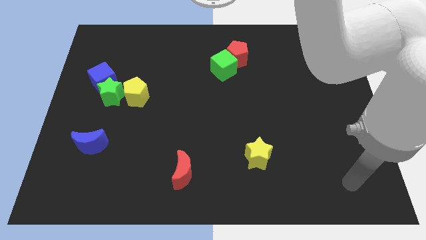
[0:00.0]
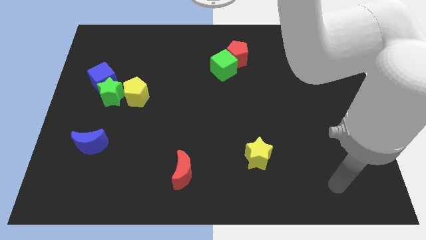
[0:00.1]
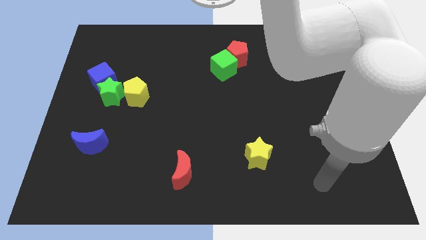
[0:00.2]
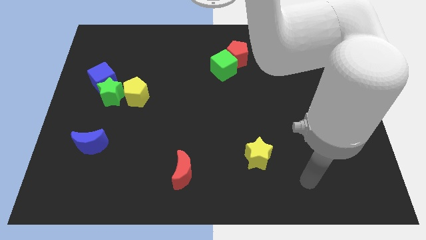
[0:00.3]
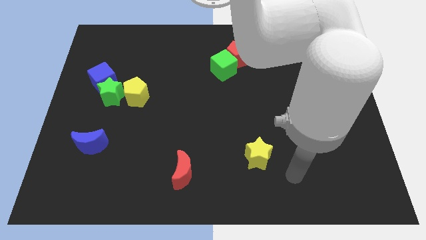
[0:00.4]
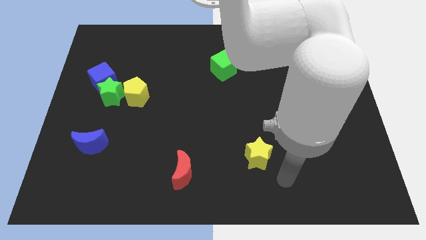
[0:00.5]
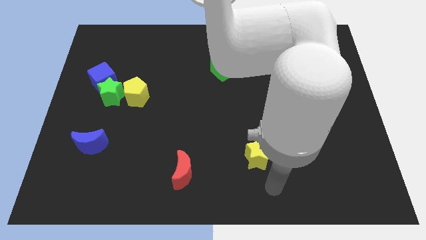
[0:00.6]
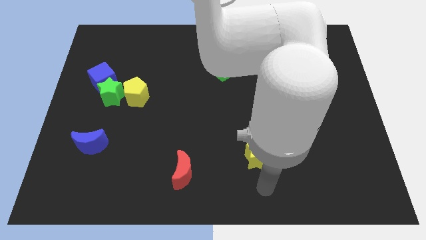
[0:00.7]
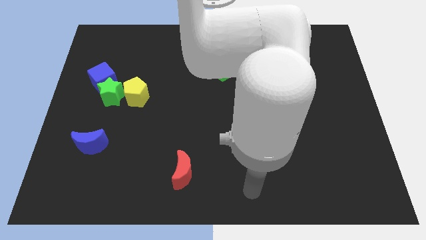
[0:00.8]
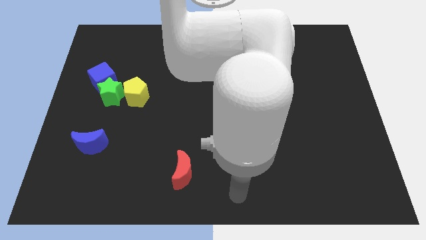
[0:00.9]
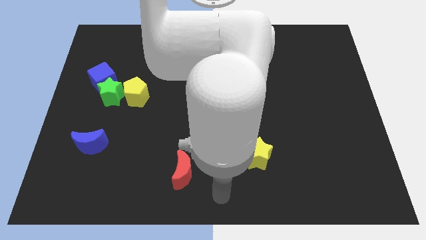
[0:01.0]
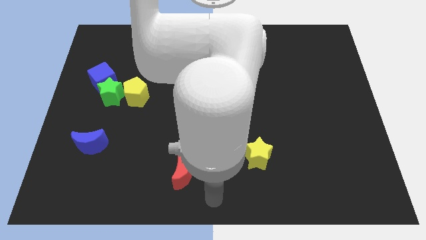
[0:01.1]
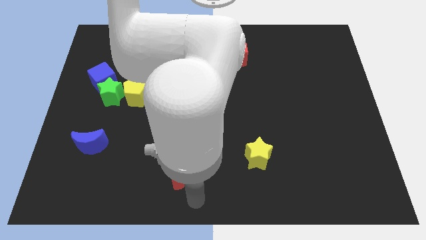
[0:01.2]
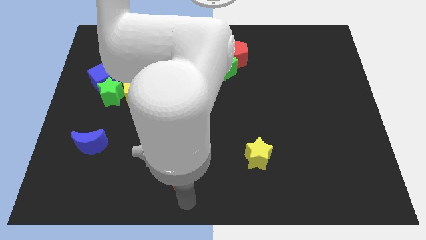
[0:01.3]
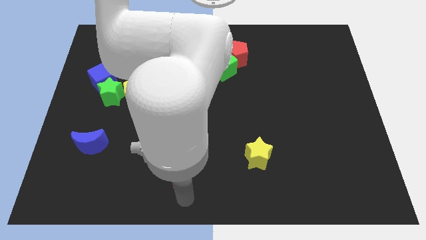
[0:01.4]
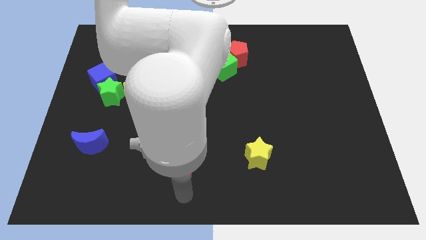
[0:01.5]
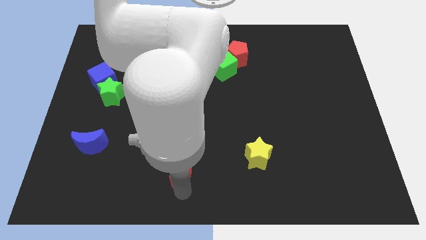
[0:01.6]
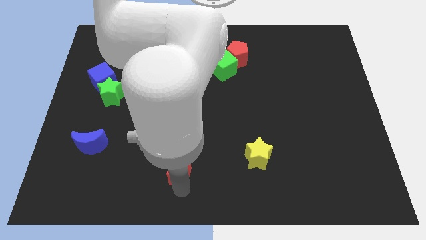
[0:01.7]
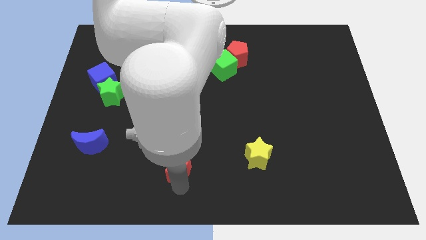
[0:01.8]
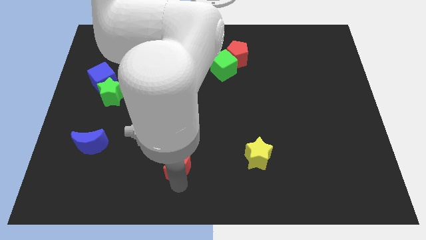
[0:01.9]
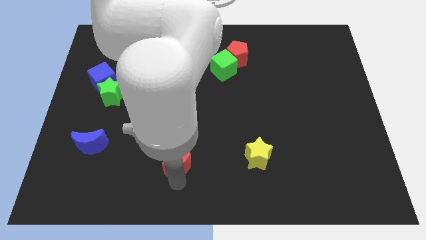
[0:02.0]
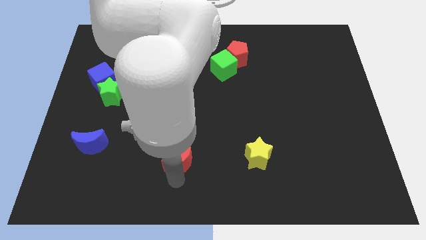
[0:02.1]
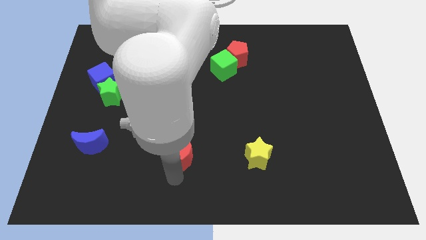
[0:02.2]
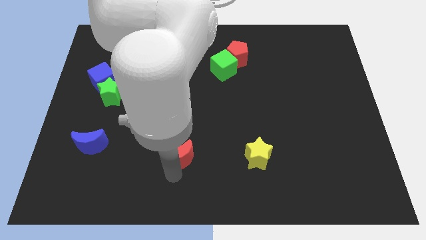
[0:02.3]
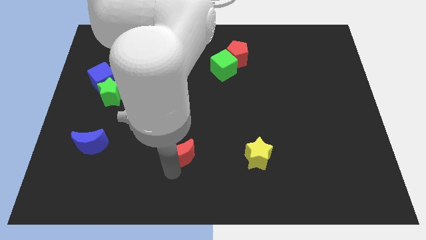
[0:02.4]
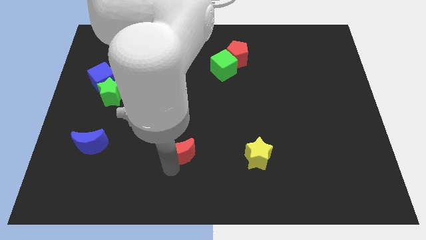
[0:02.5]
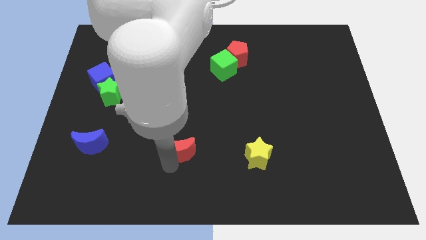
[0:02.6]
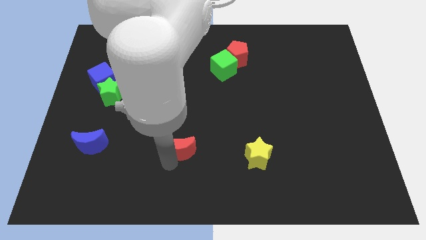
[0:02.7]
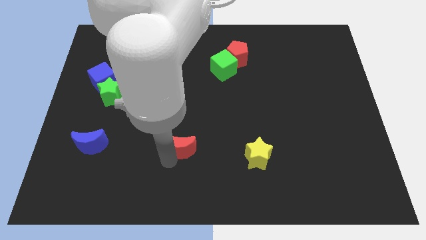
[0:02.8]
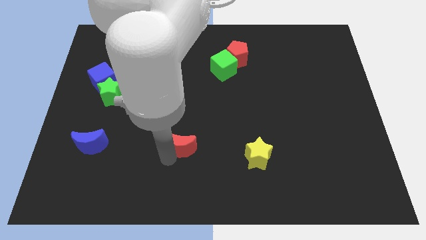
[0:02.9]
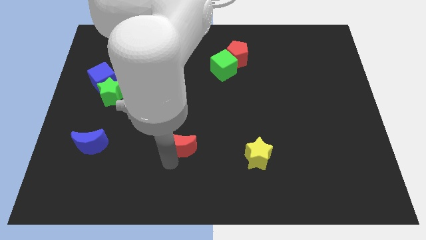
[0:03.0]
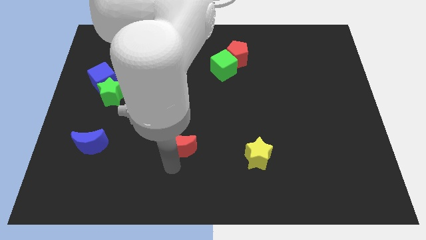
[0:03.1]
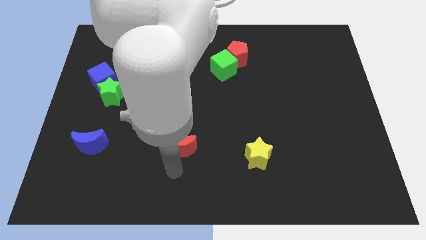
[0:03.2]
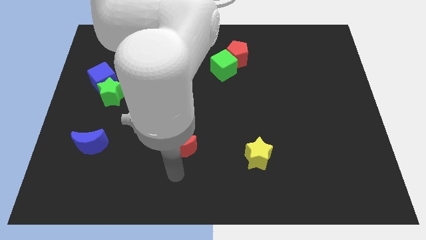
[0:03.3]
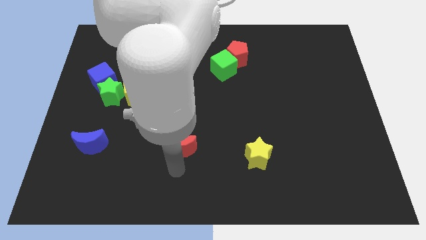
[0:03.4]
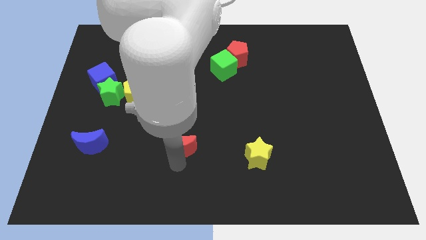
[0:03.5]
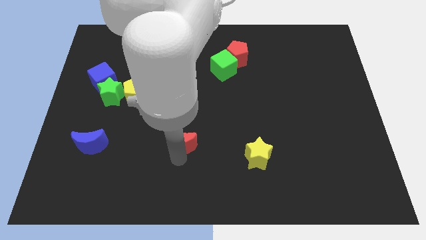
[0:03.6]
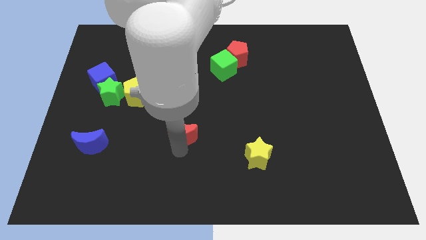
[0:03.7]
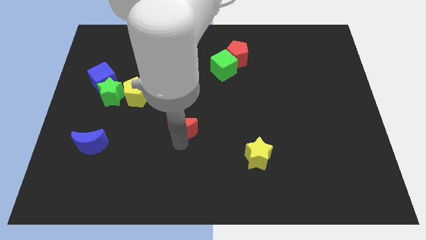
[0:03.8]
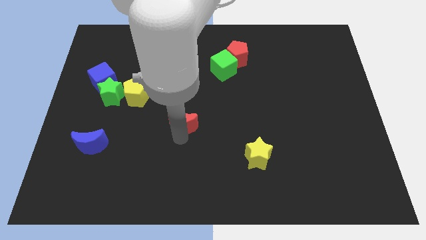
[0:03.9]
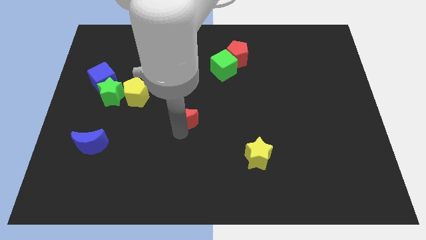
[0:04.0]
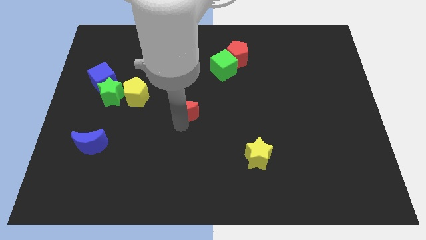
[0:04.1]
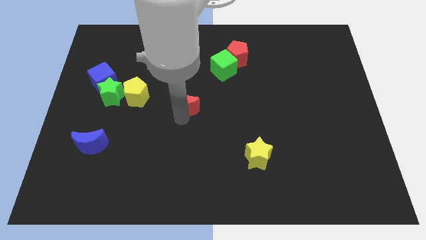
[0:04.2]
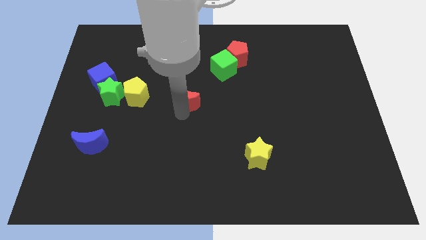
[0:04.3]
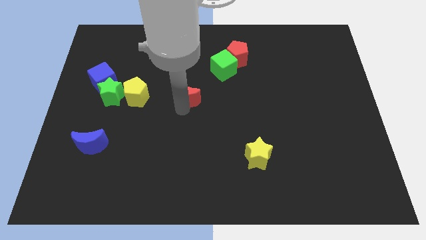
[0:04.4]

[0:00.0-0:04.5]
move the red moon up

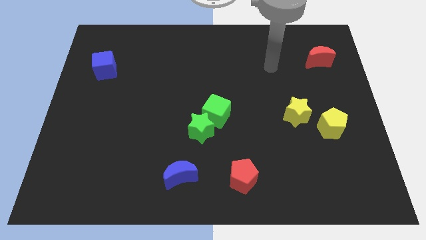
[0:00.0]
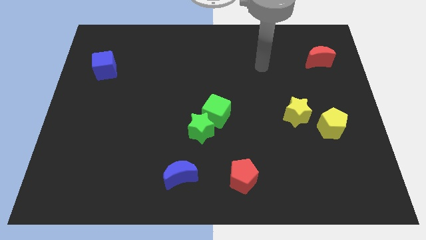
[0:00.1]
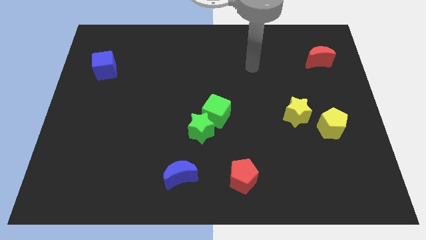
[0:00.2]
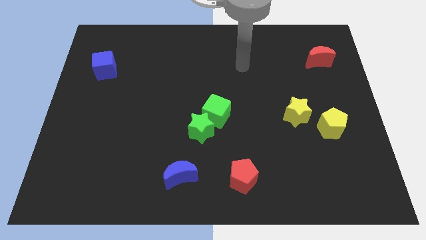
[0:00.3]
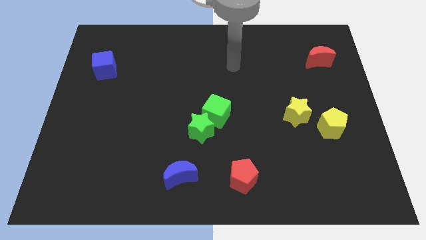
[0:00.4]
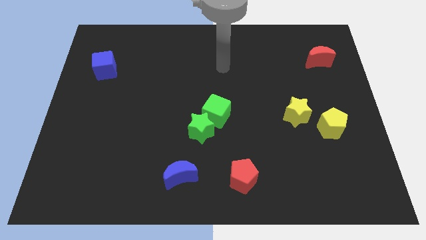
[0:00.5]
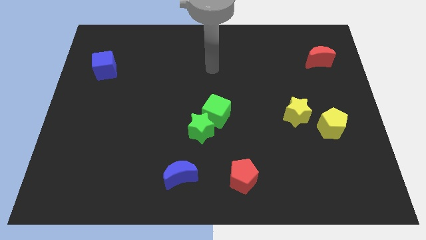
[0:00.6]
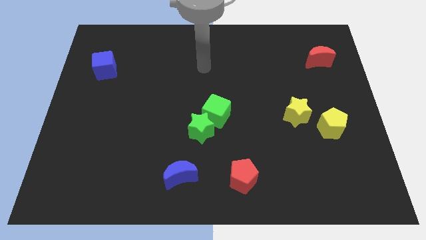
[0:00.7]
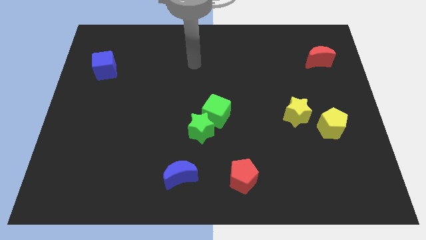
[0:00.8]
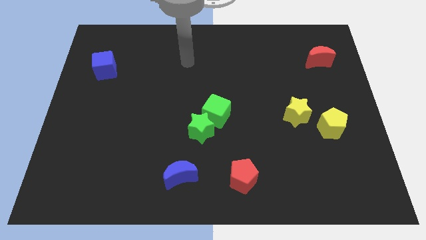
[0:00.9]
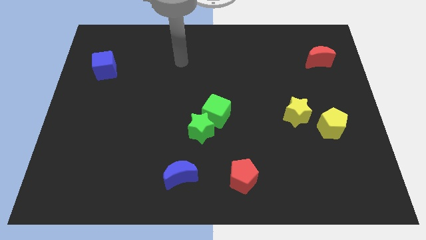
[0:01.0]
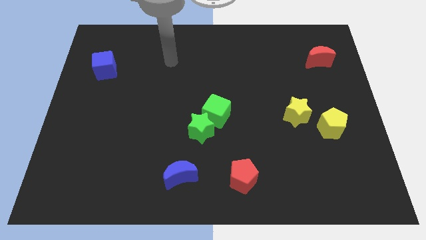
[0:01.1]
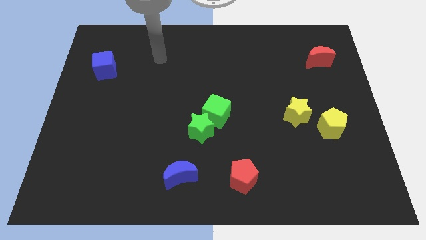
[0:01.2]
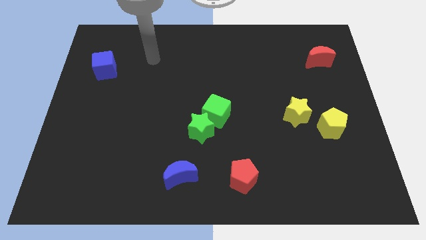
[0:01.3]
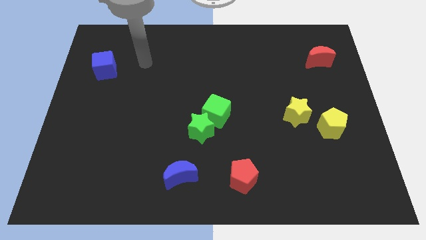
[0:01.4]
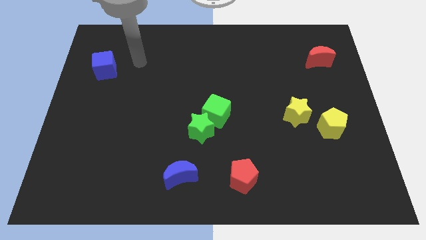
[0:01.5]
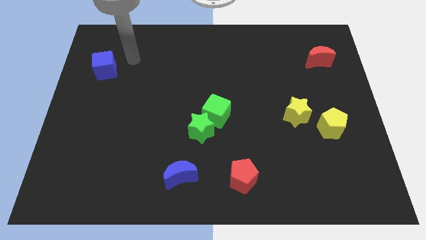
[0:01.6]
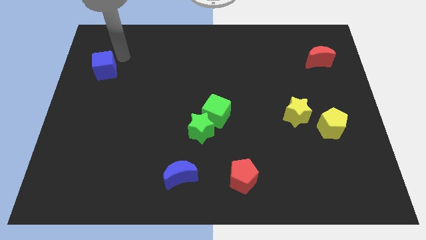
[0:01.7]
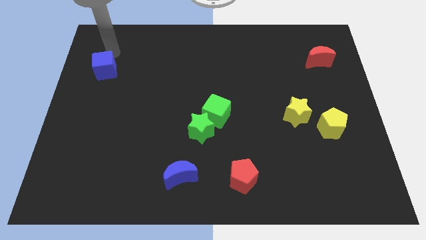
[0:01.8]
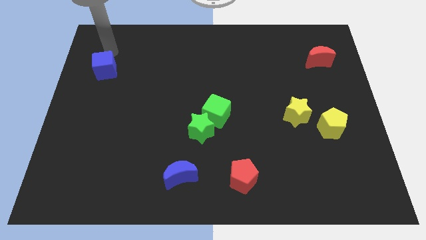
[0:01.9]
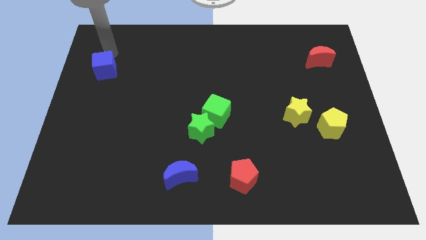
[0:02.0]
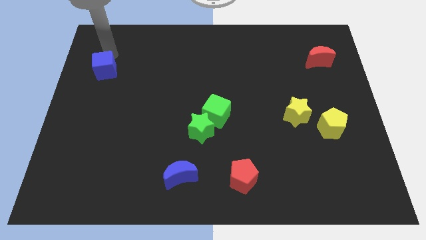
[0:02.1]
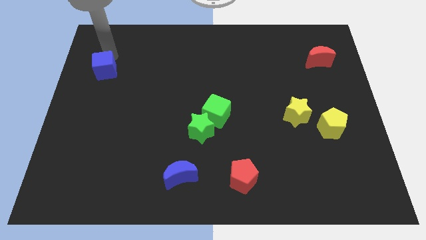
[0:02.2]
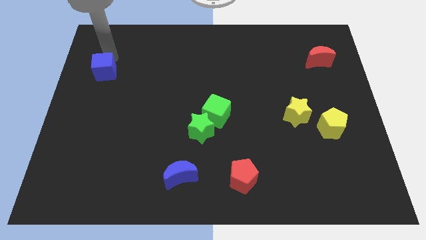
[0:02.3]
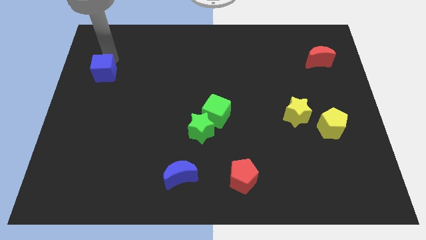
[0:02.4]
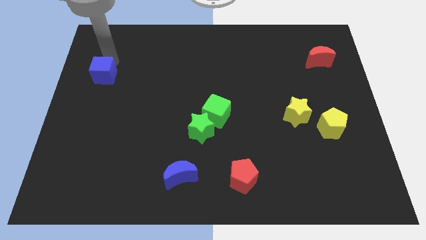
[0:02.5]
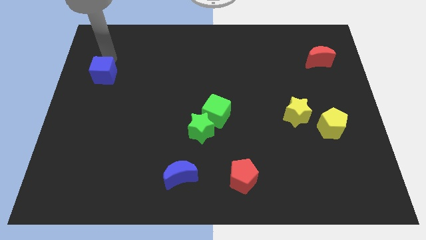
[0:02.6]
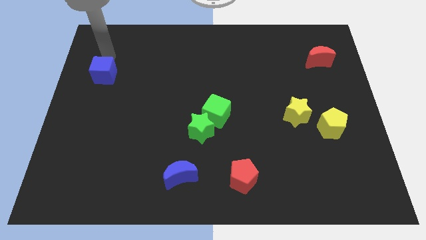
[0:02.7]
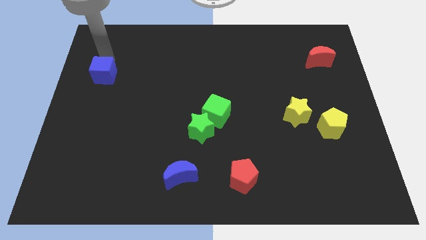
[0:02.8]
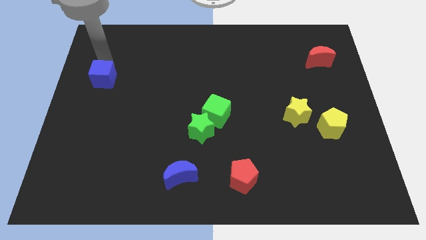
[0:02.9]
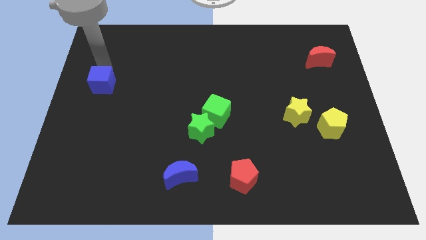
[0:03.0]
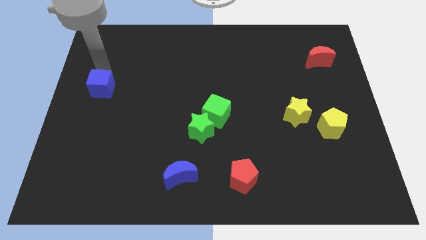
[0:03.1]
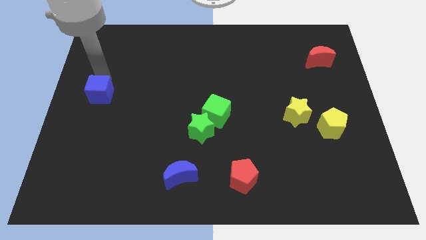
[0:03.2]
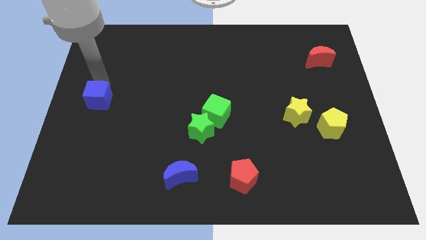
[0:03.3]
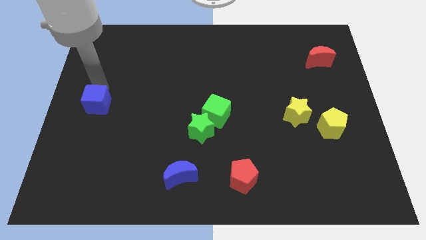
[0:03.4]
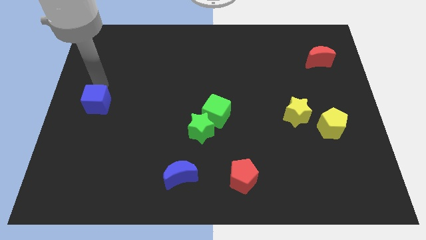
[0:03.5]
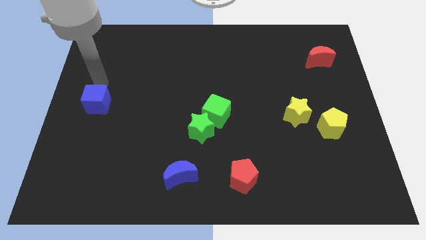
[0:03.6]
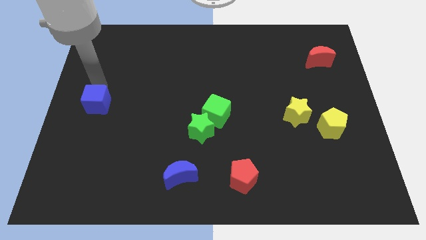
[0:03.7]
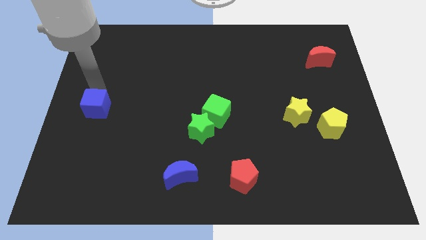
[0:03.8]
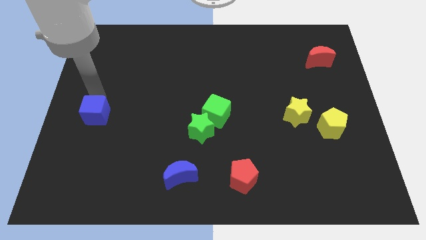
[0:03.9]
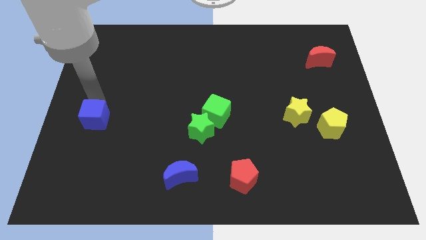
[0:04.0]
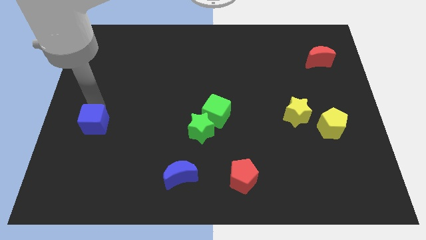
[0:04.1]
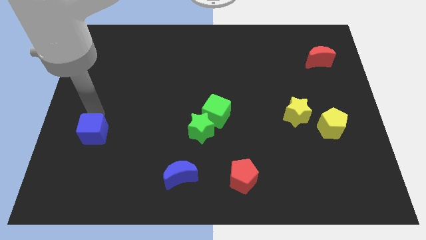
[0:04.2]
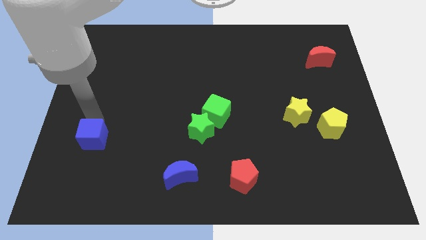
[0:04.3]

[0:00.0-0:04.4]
push the blue cube downwards
